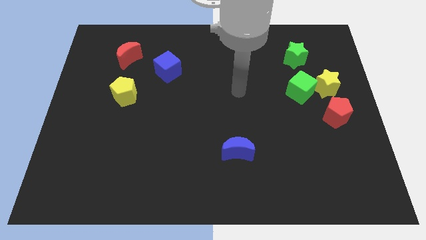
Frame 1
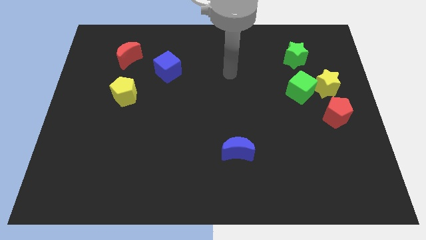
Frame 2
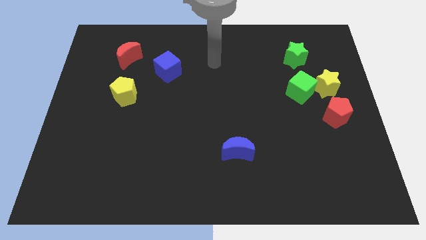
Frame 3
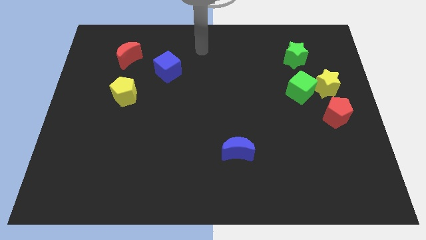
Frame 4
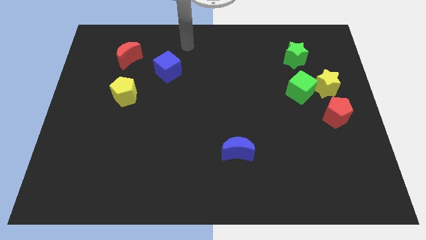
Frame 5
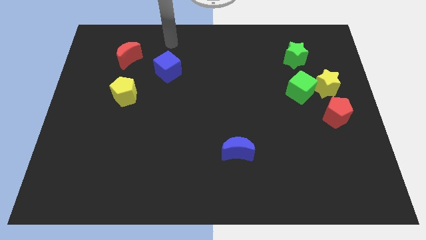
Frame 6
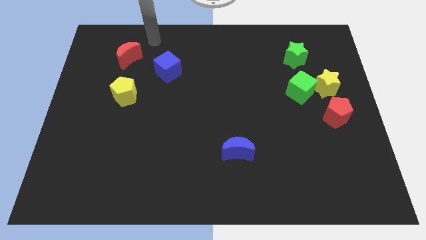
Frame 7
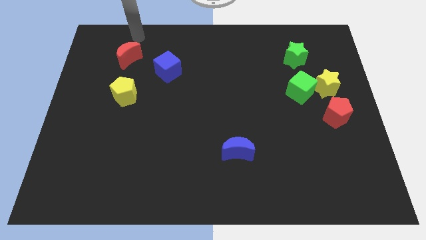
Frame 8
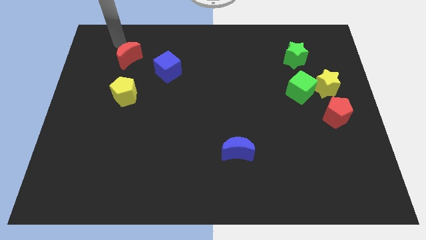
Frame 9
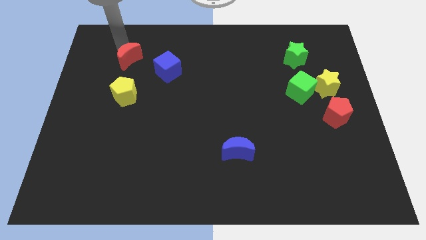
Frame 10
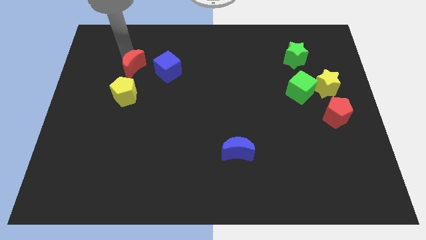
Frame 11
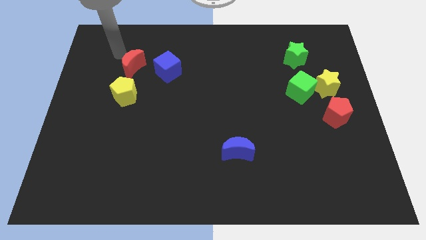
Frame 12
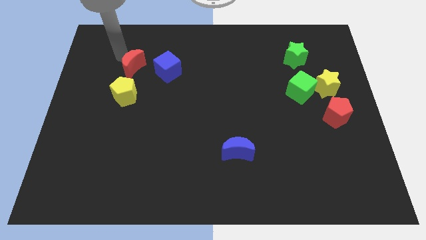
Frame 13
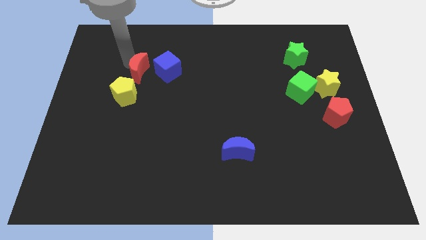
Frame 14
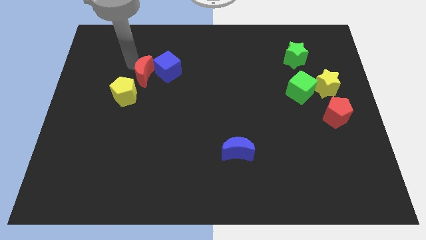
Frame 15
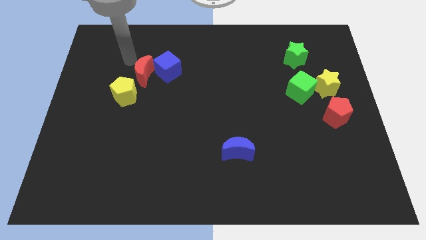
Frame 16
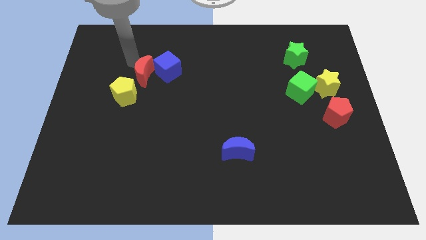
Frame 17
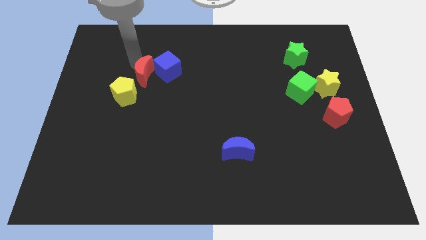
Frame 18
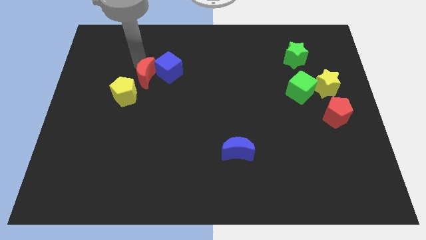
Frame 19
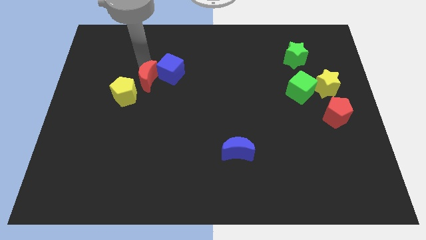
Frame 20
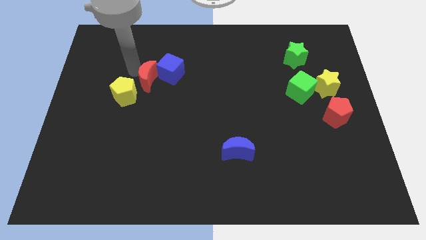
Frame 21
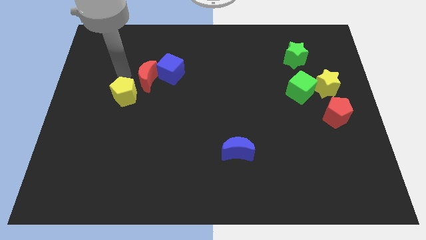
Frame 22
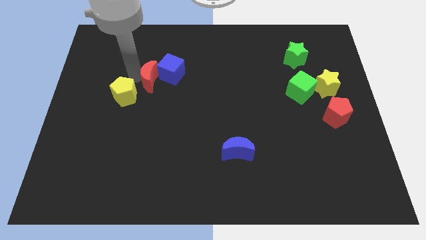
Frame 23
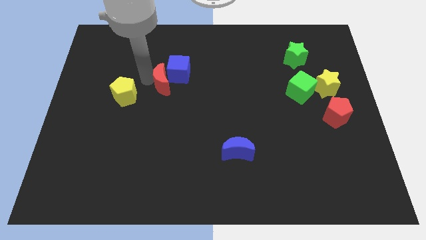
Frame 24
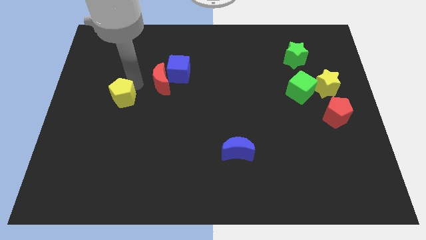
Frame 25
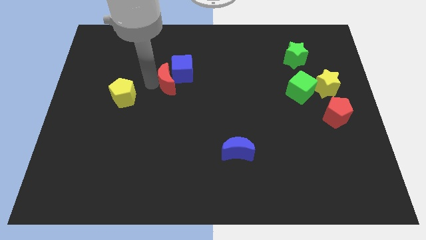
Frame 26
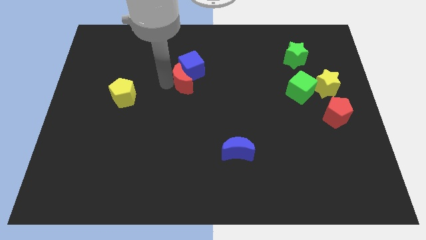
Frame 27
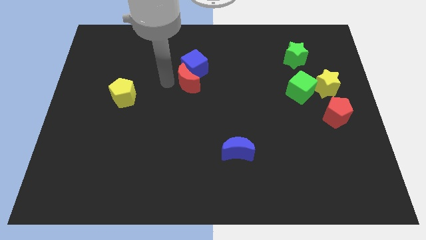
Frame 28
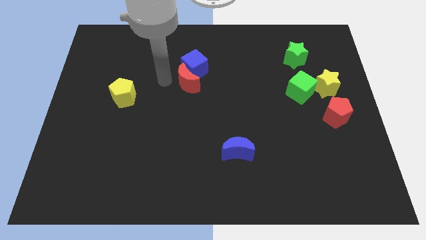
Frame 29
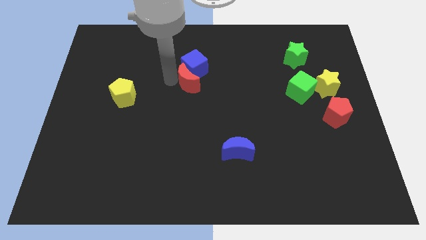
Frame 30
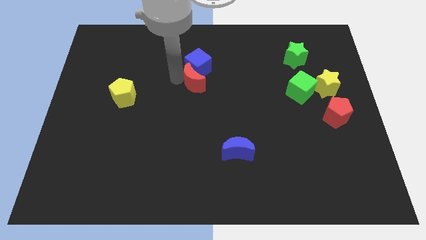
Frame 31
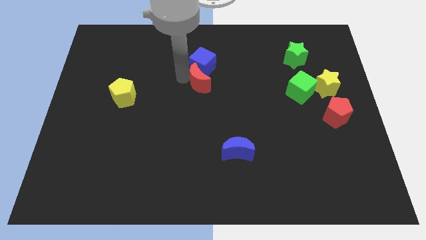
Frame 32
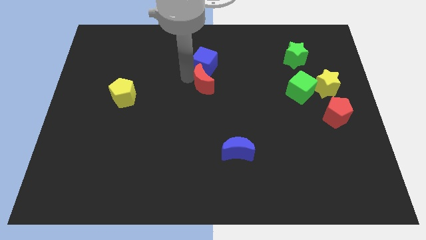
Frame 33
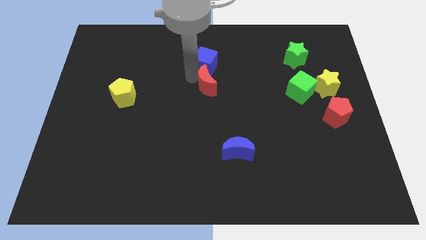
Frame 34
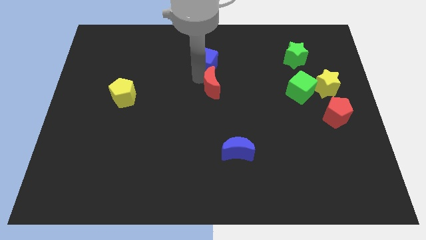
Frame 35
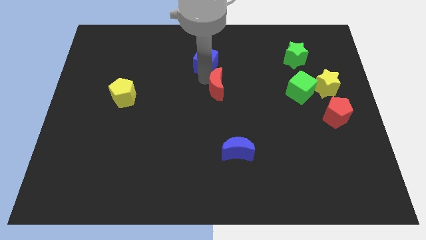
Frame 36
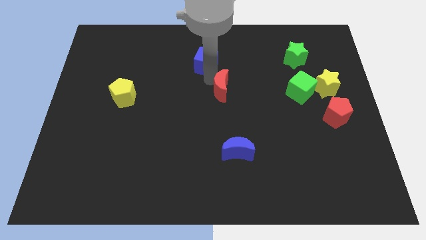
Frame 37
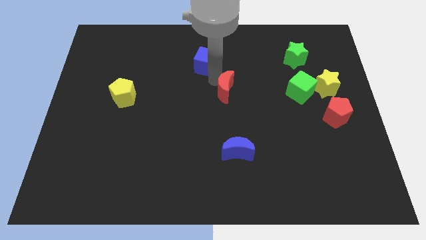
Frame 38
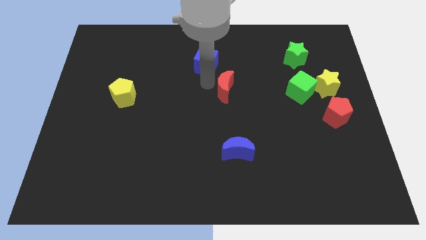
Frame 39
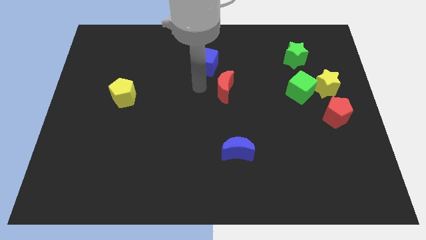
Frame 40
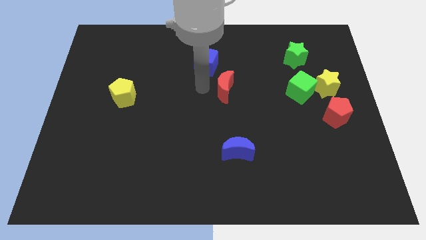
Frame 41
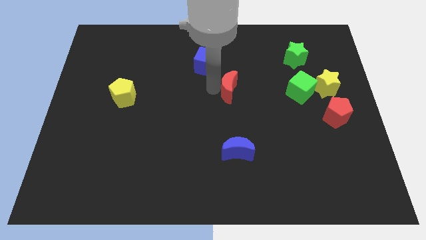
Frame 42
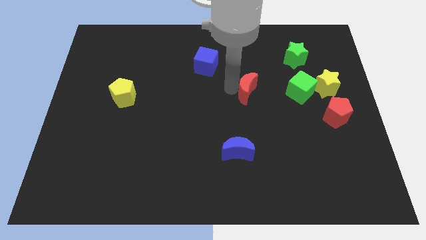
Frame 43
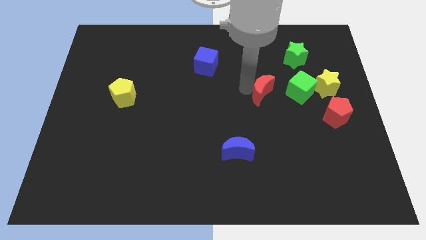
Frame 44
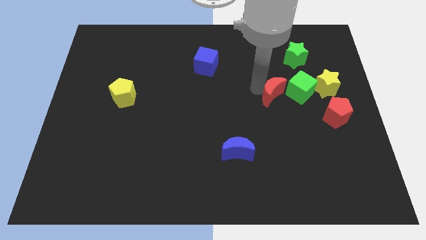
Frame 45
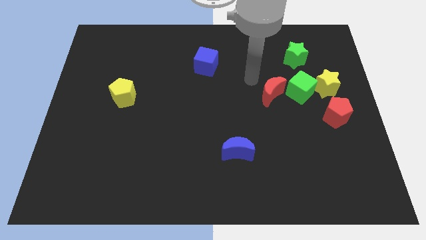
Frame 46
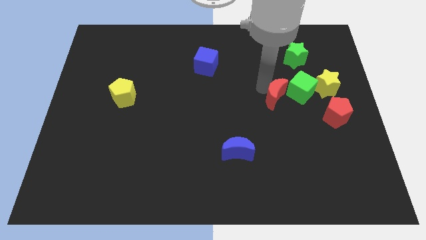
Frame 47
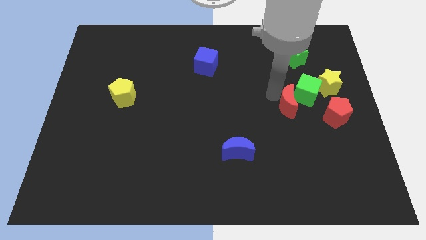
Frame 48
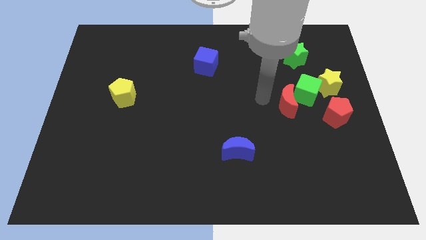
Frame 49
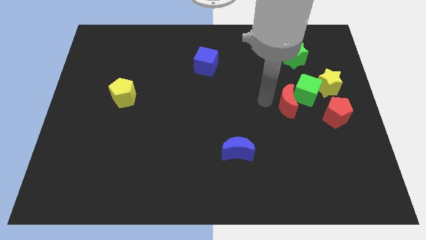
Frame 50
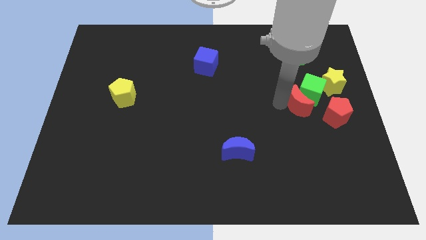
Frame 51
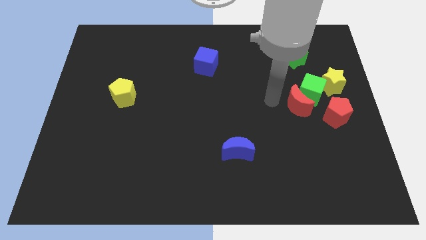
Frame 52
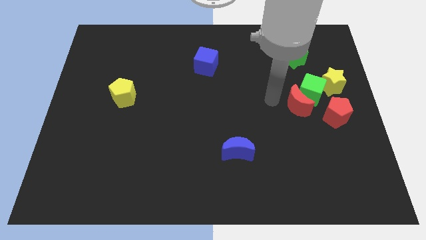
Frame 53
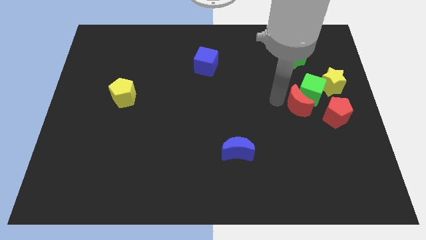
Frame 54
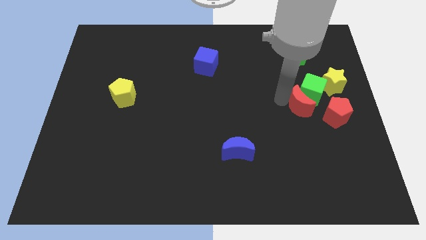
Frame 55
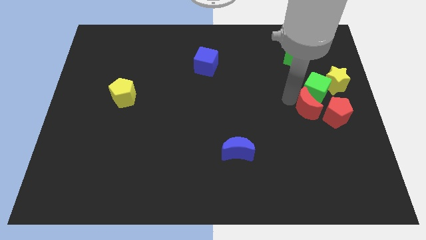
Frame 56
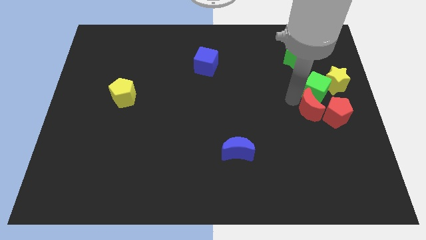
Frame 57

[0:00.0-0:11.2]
slide the red moon next to the red pentagon

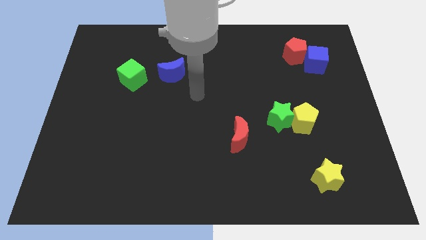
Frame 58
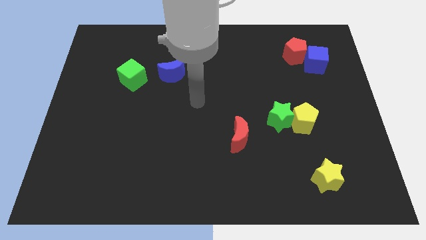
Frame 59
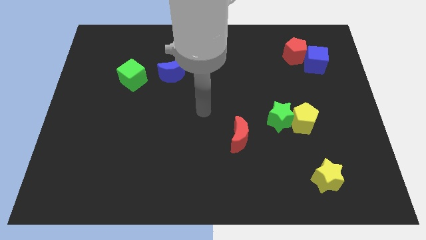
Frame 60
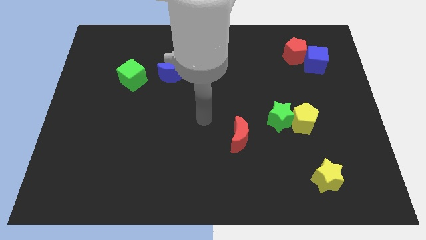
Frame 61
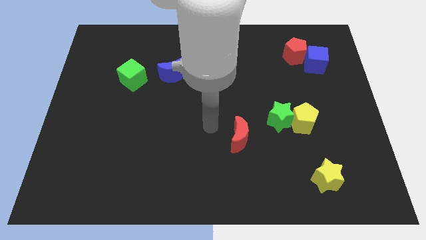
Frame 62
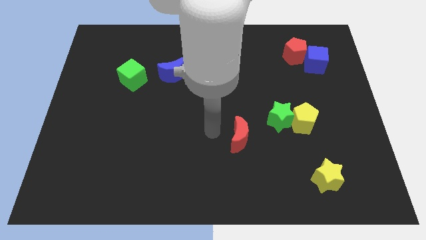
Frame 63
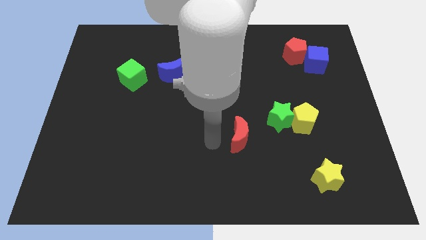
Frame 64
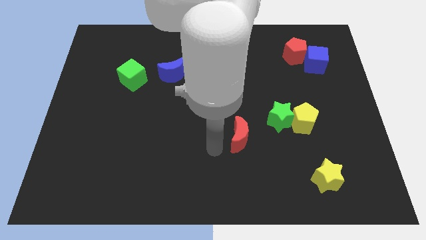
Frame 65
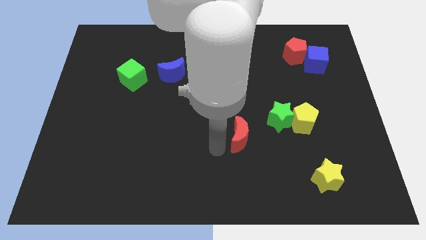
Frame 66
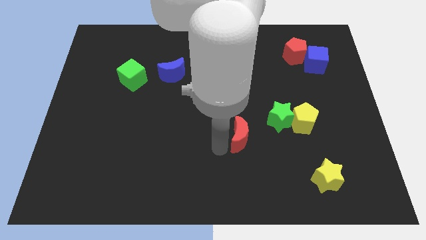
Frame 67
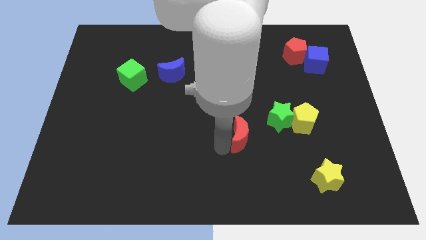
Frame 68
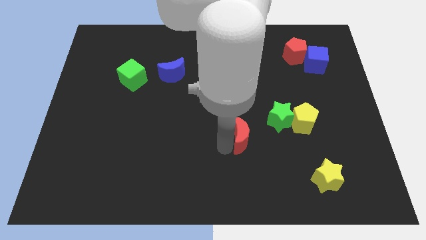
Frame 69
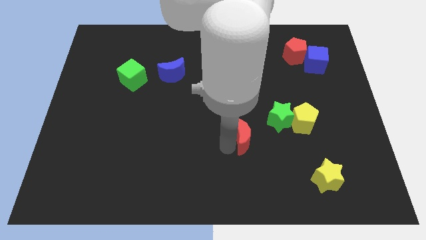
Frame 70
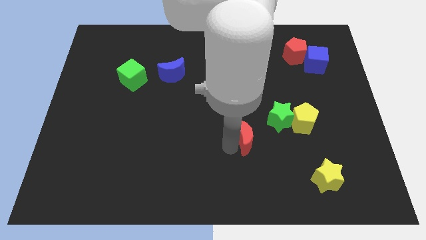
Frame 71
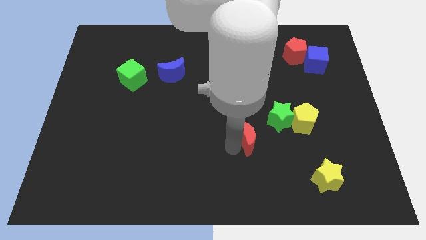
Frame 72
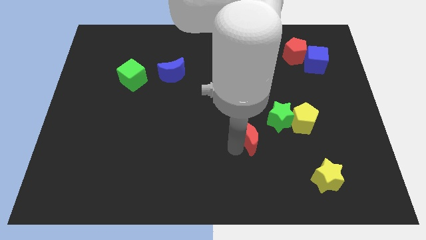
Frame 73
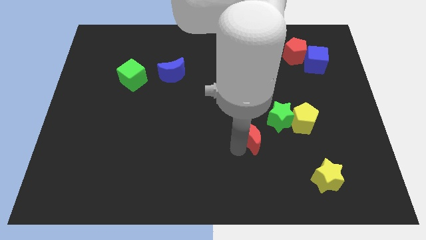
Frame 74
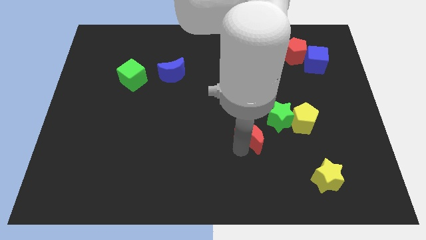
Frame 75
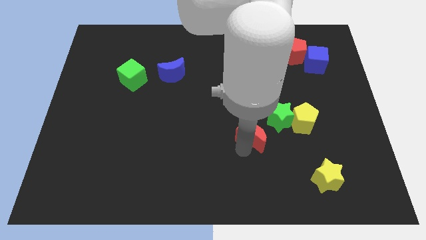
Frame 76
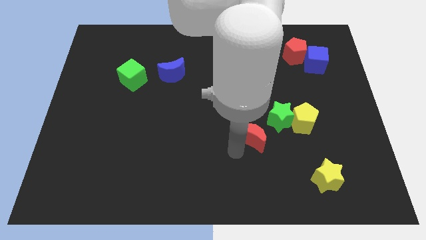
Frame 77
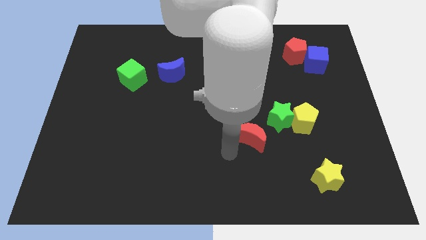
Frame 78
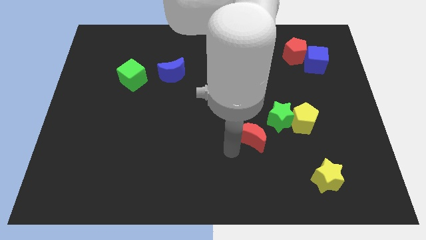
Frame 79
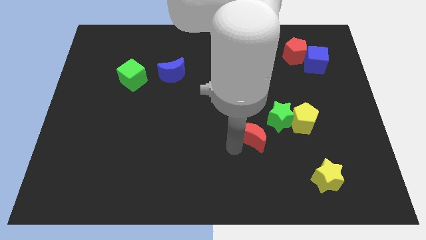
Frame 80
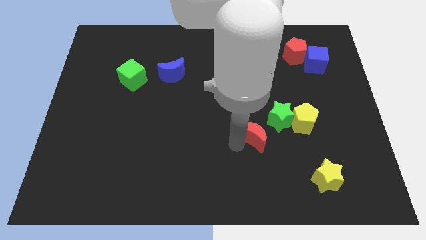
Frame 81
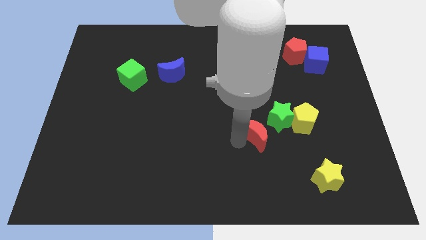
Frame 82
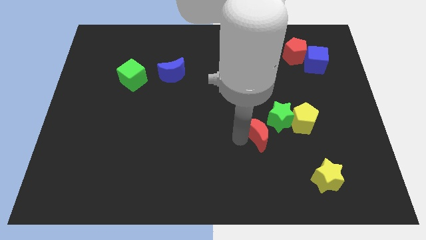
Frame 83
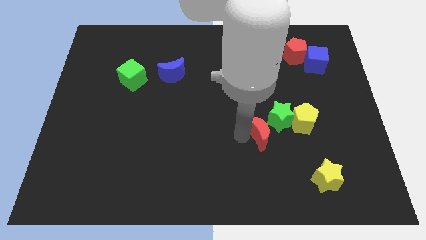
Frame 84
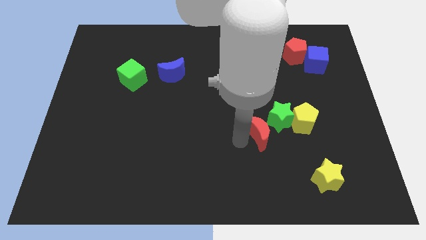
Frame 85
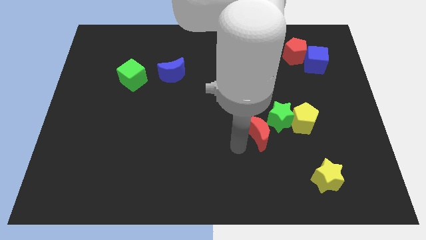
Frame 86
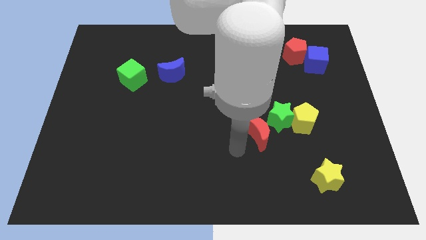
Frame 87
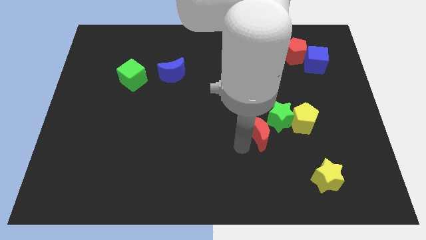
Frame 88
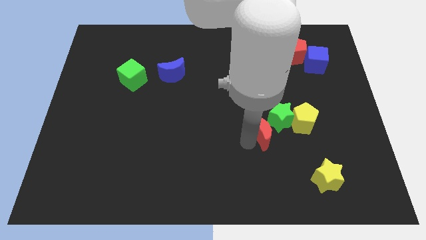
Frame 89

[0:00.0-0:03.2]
put the red moon next to the green star
